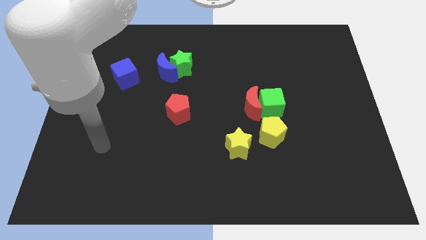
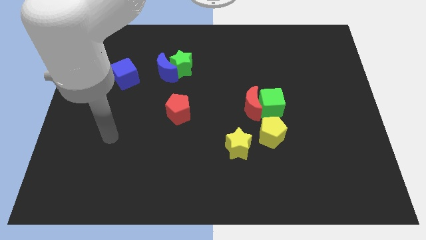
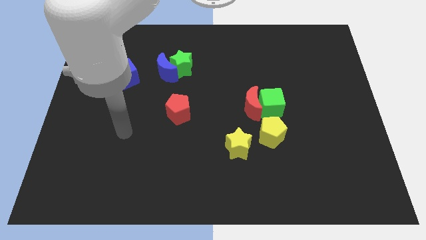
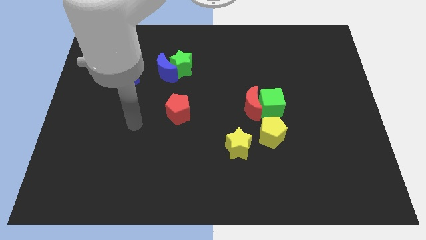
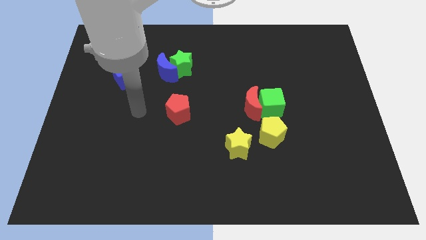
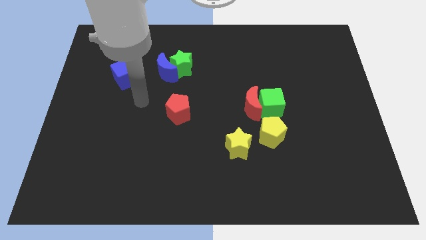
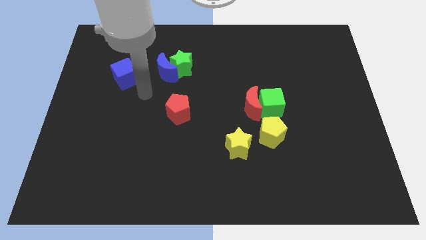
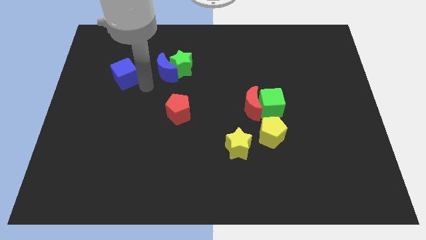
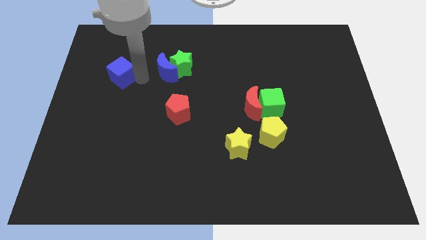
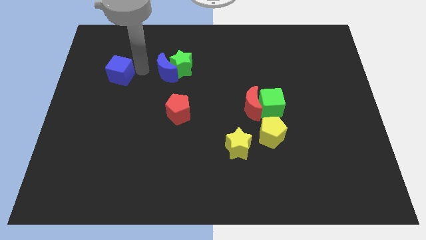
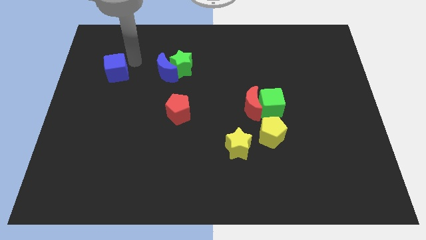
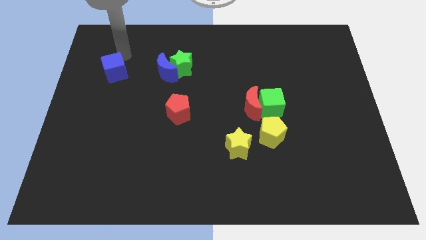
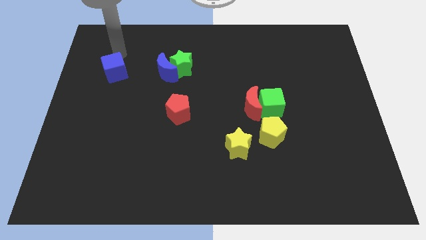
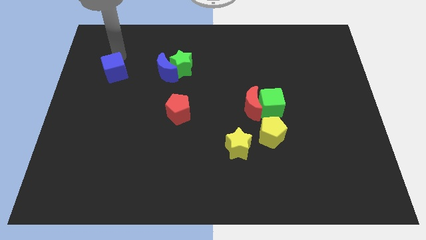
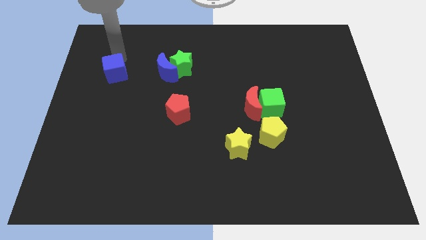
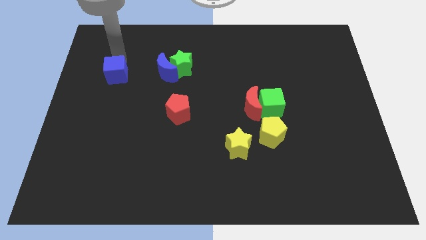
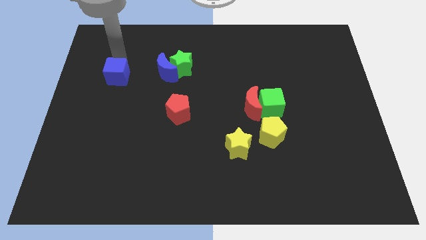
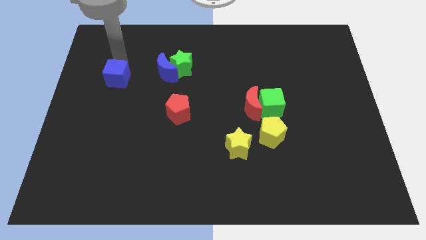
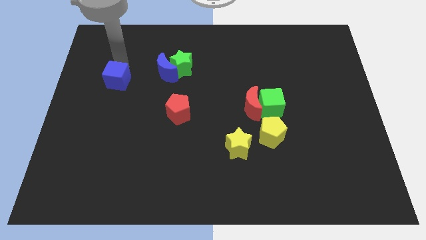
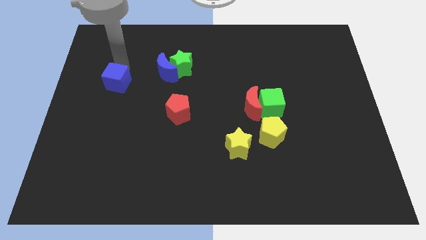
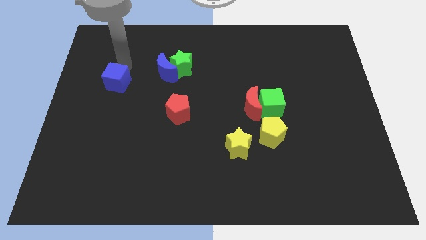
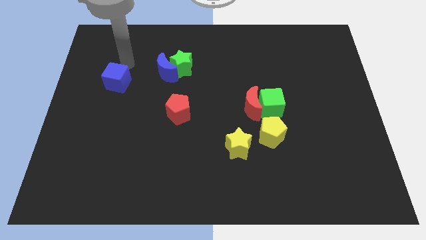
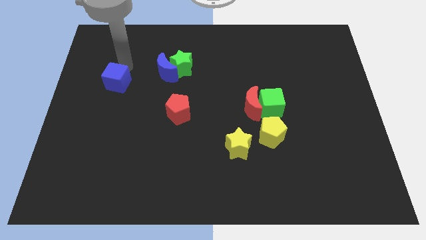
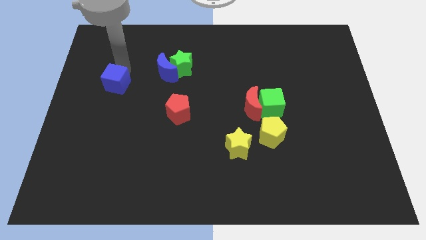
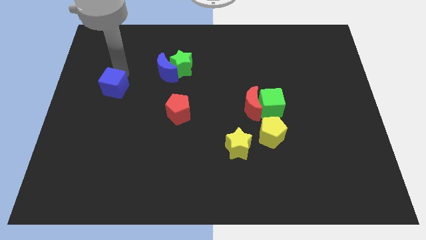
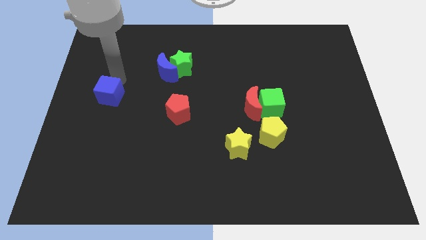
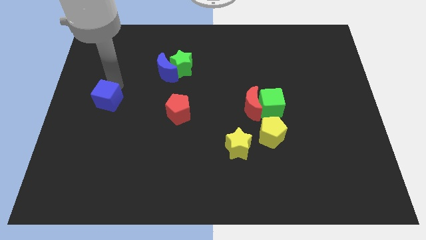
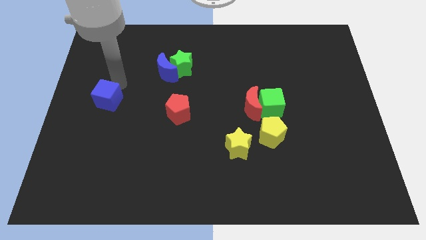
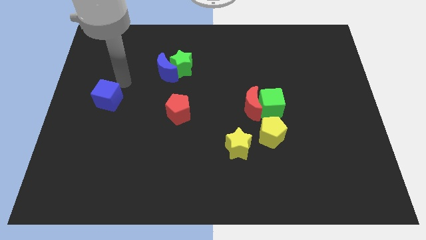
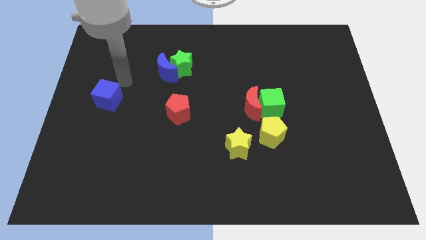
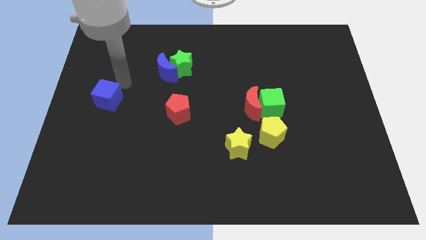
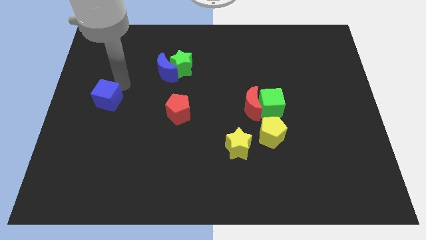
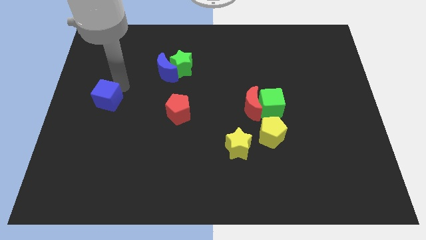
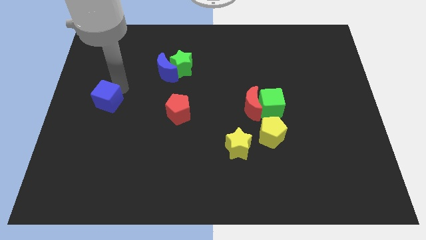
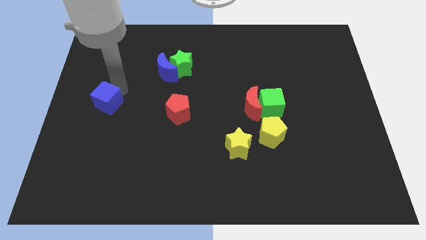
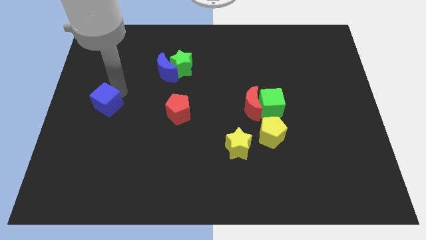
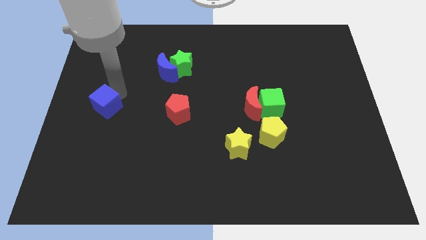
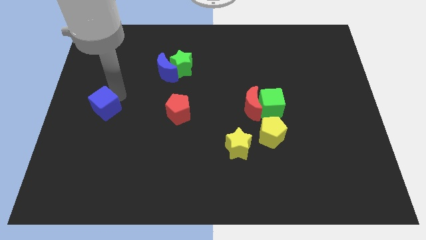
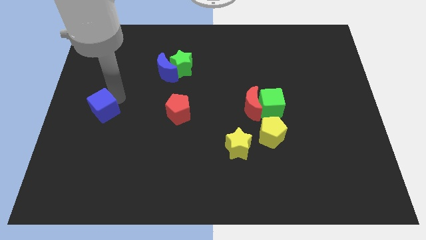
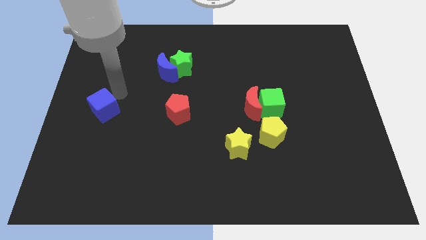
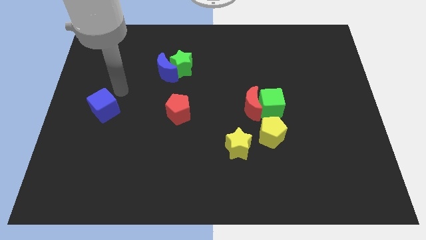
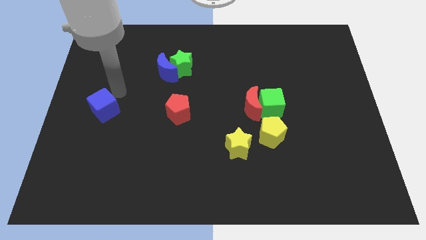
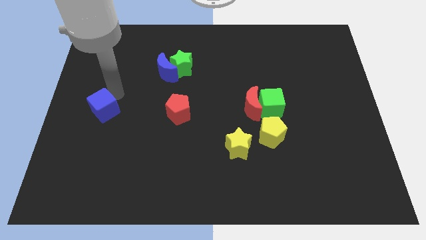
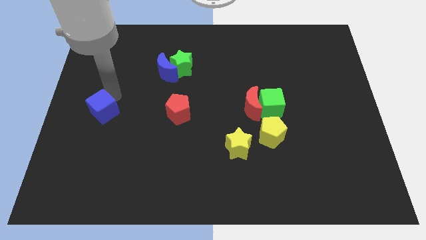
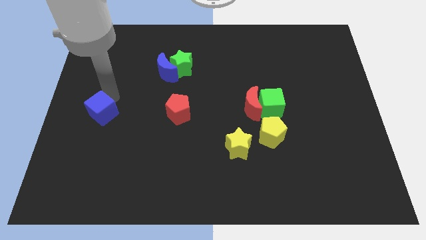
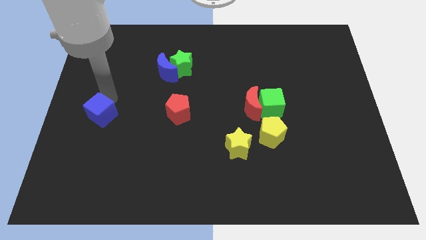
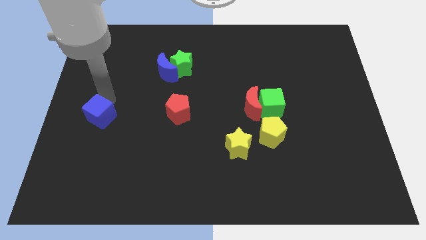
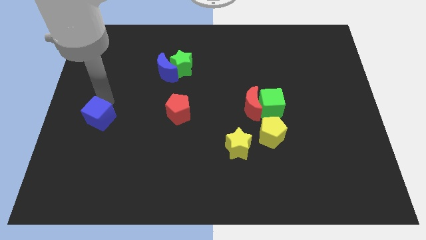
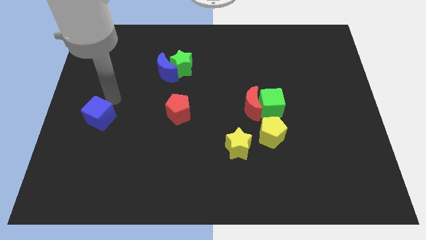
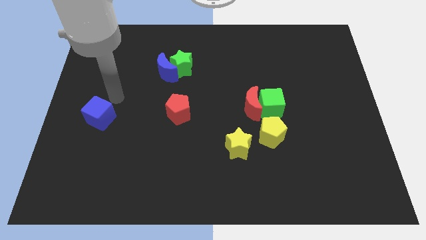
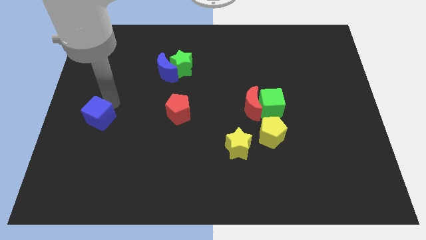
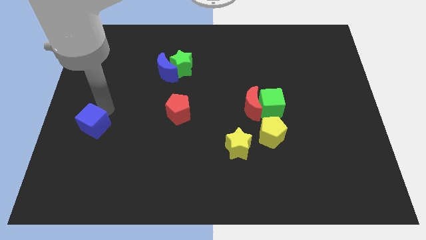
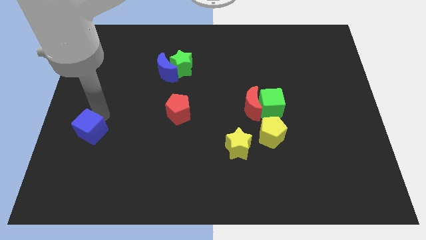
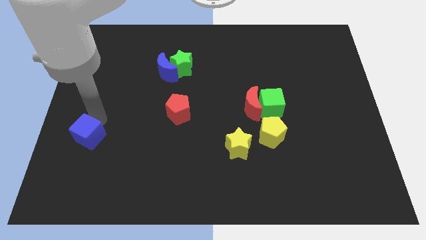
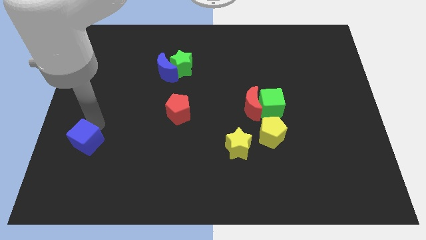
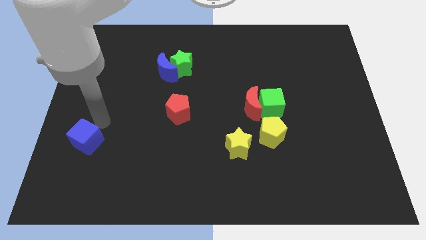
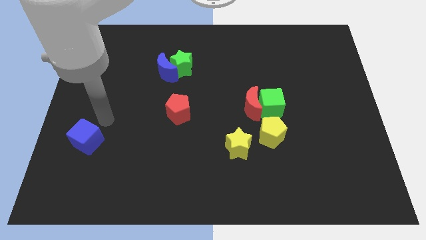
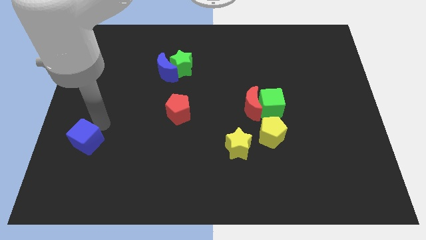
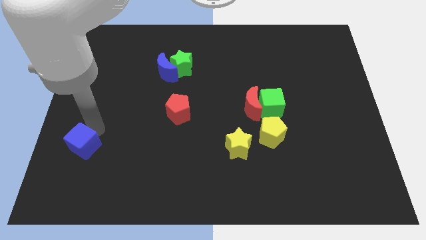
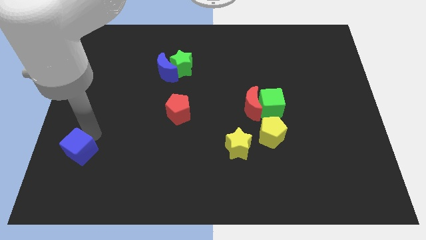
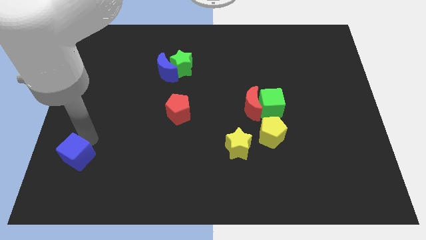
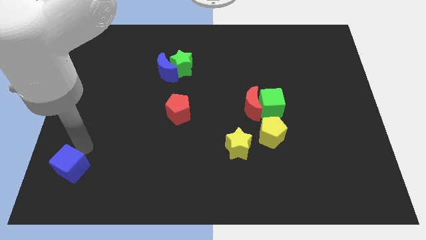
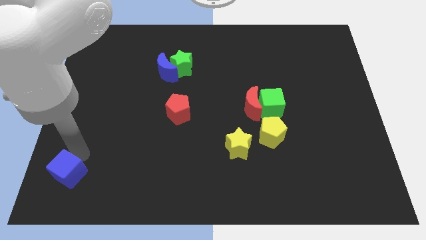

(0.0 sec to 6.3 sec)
put the blue cube to the bottom left corner

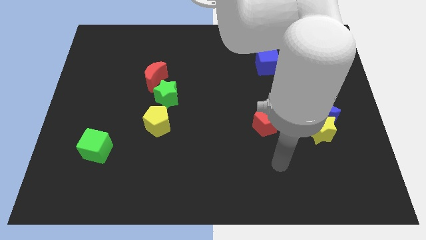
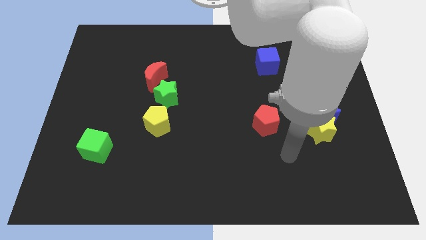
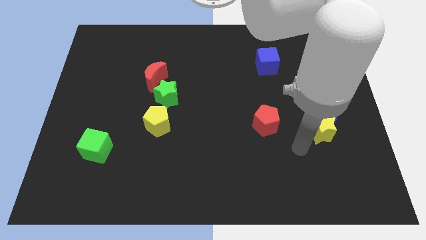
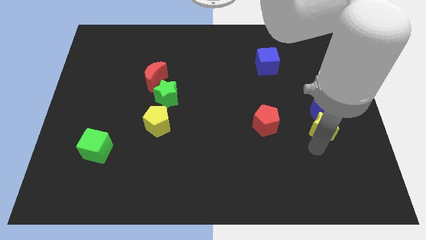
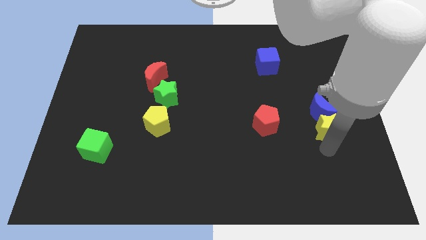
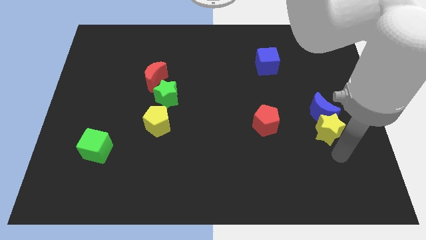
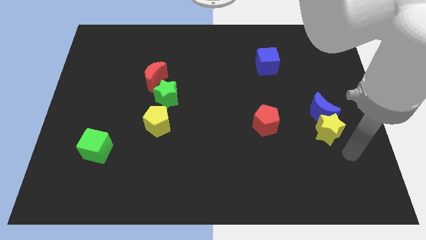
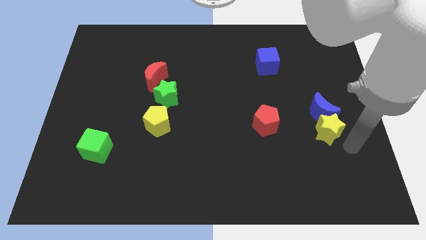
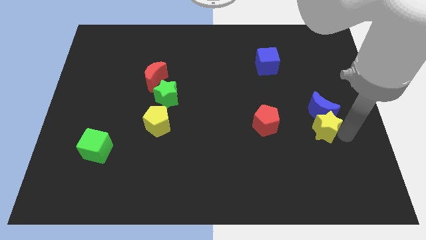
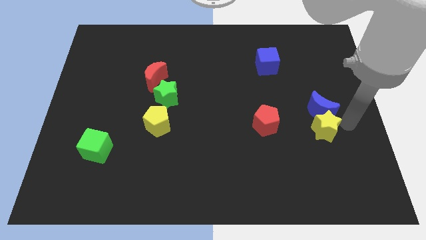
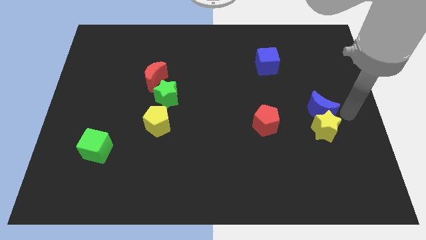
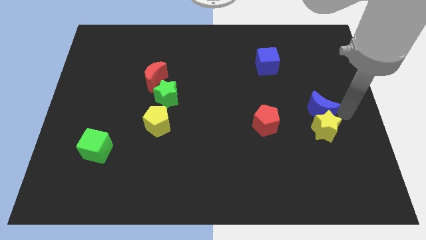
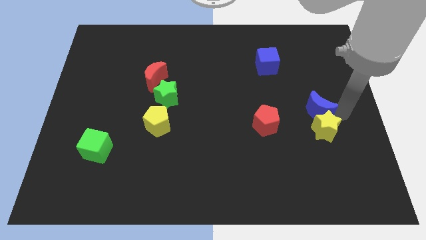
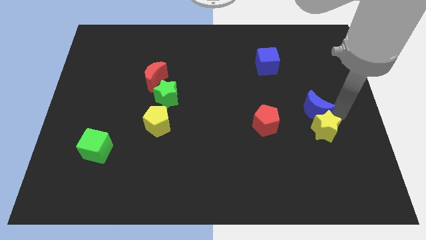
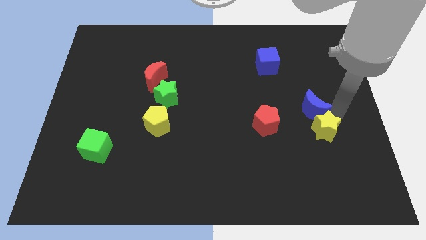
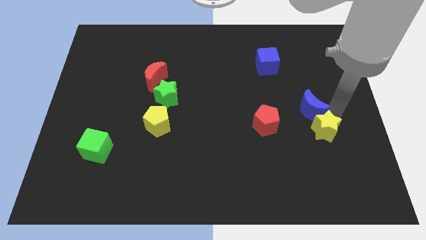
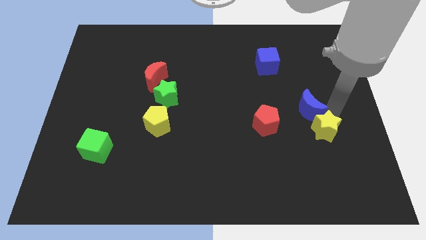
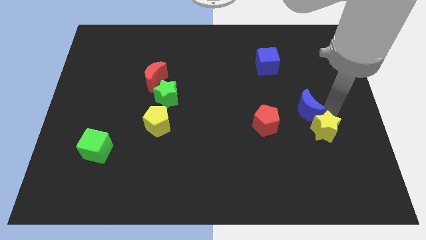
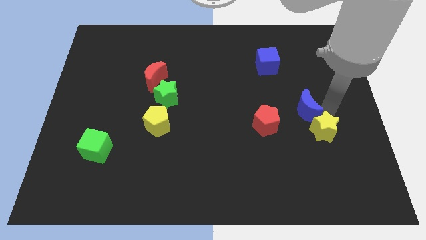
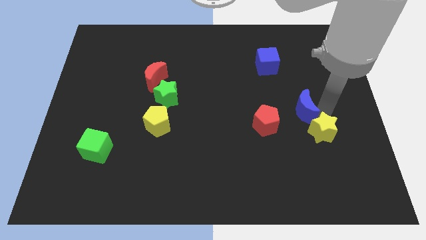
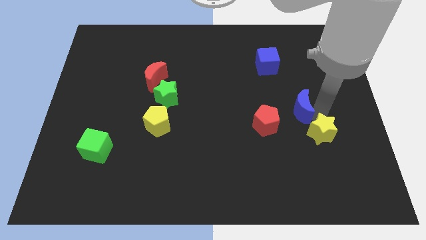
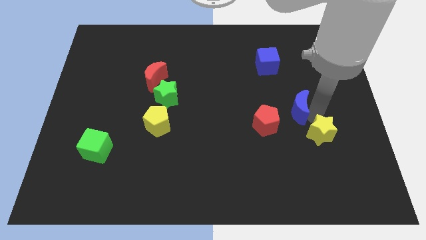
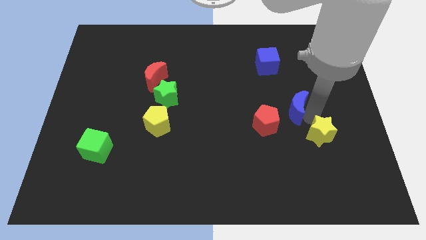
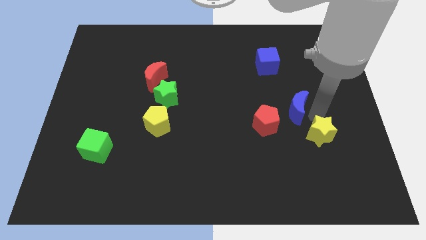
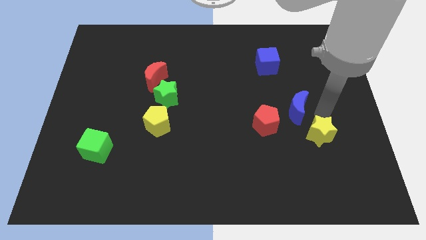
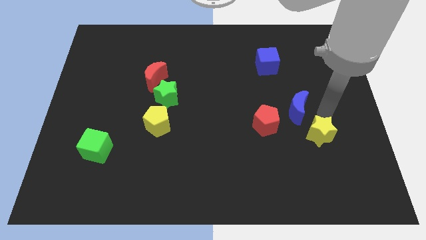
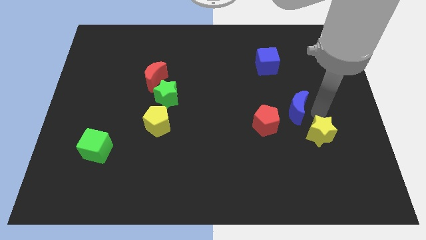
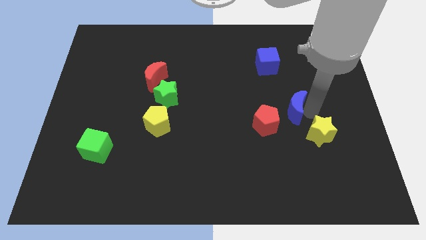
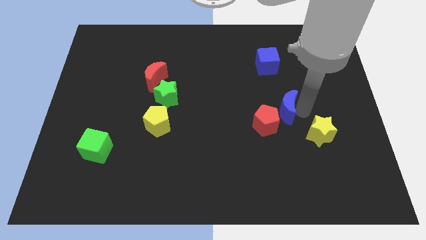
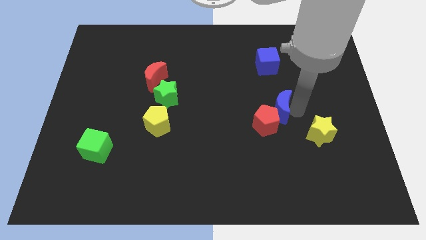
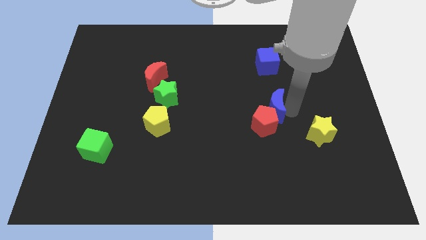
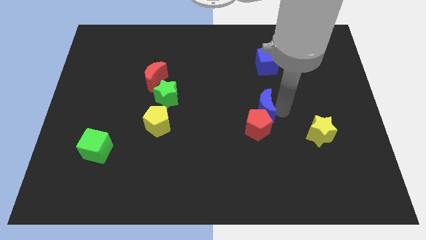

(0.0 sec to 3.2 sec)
move the blue moon to the middle
